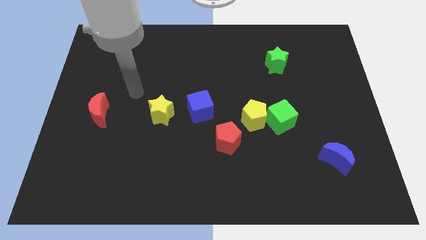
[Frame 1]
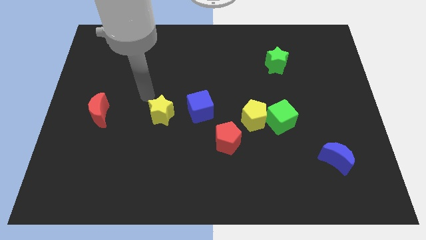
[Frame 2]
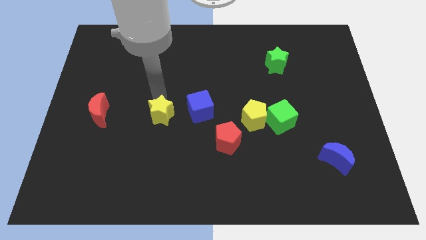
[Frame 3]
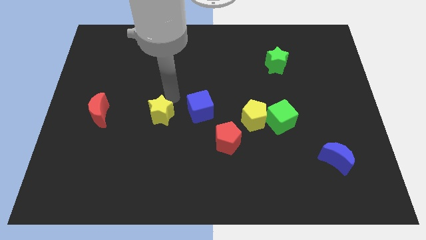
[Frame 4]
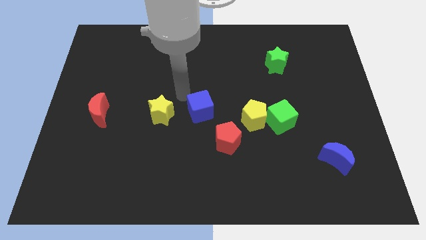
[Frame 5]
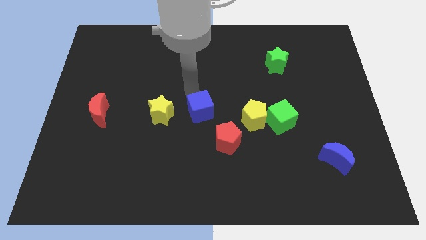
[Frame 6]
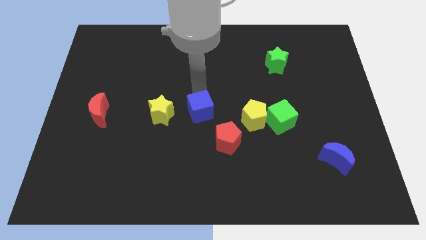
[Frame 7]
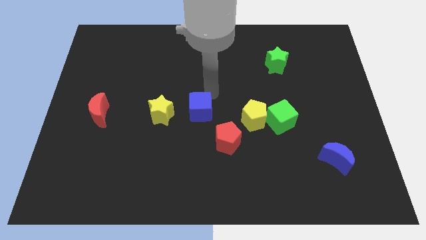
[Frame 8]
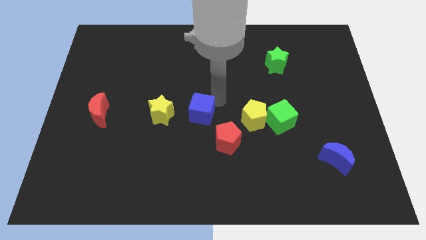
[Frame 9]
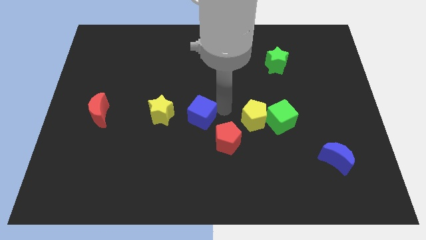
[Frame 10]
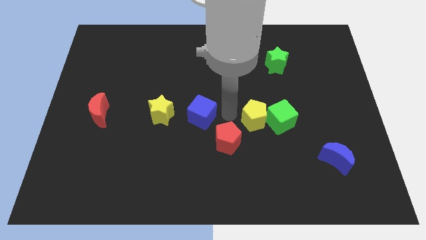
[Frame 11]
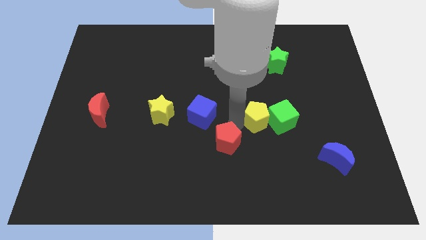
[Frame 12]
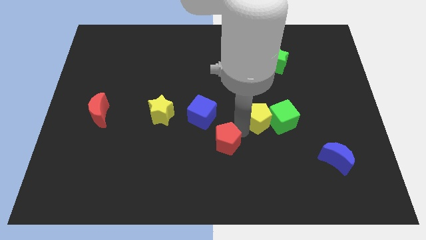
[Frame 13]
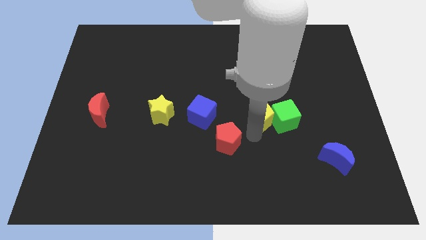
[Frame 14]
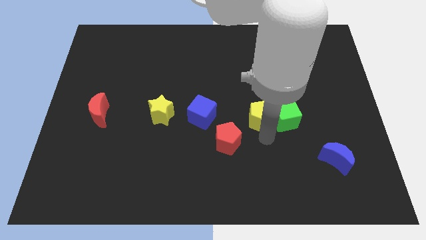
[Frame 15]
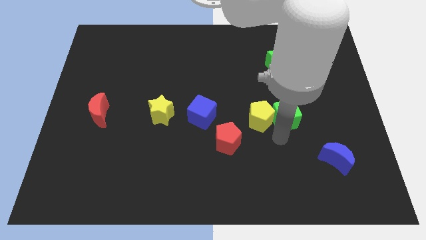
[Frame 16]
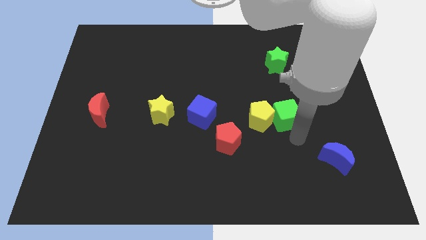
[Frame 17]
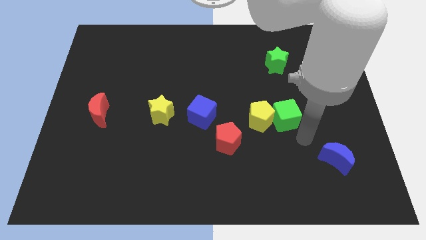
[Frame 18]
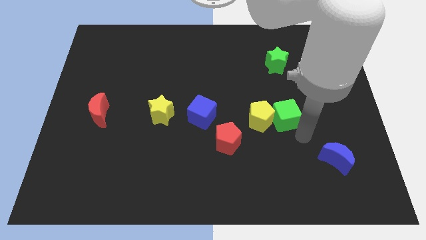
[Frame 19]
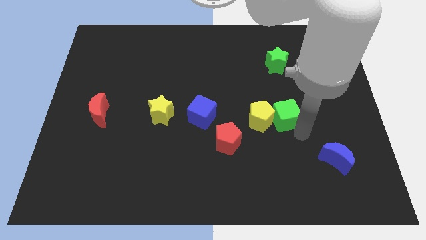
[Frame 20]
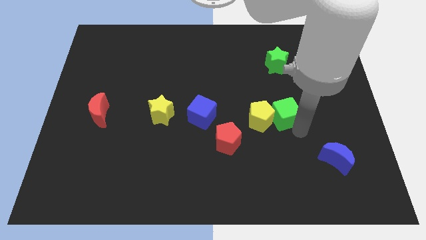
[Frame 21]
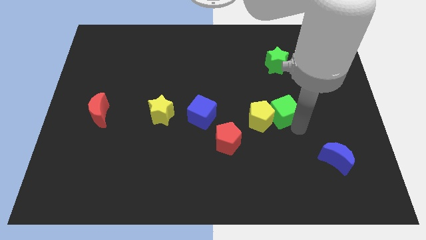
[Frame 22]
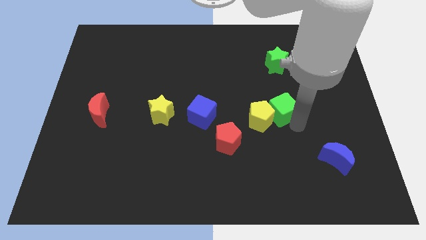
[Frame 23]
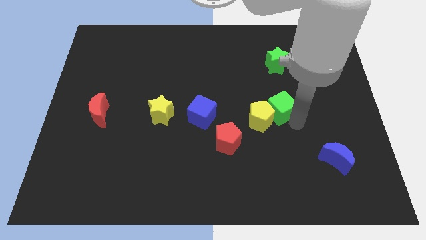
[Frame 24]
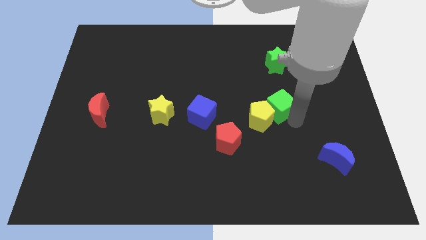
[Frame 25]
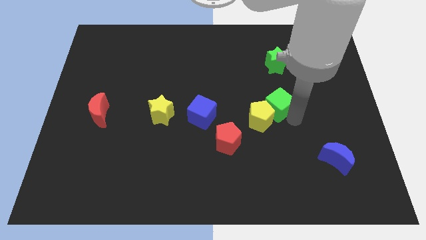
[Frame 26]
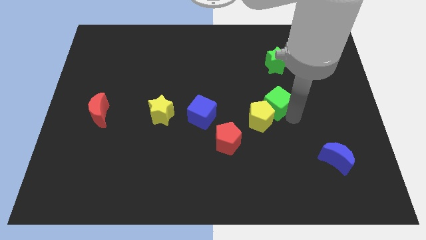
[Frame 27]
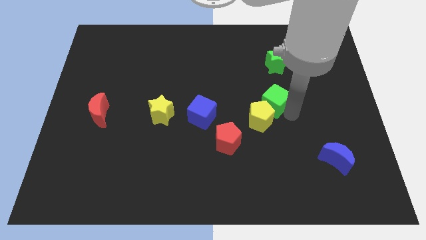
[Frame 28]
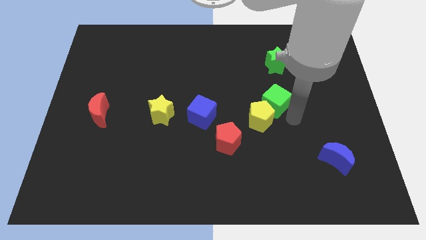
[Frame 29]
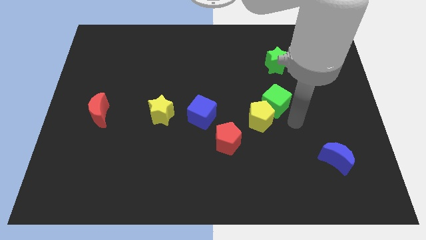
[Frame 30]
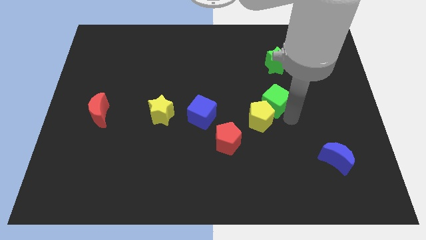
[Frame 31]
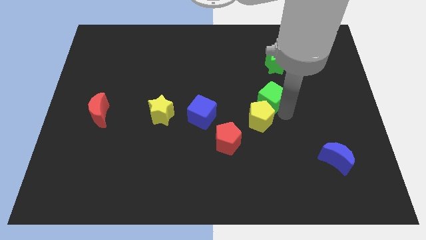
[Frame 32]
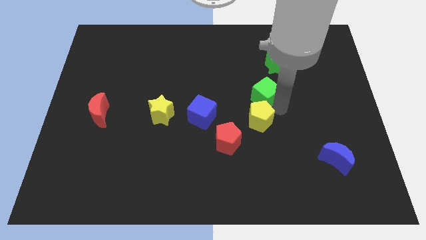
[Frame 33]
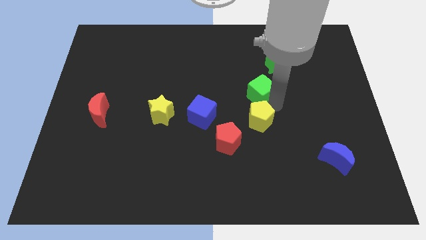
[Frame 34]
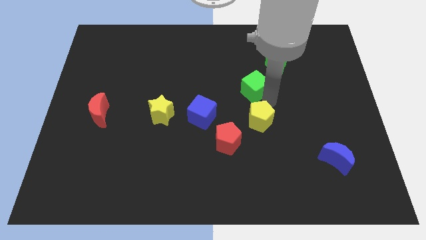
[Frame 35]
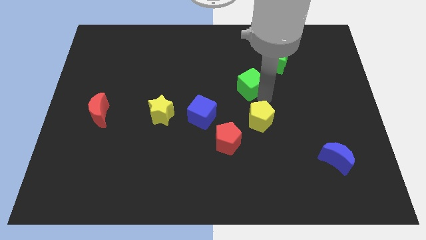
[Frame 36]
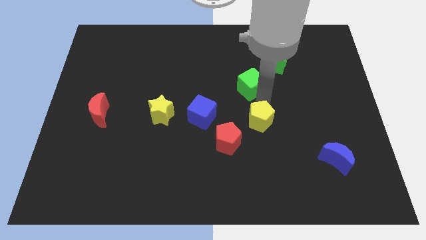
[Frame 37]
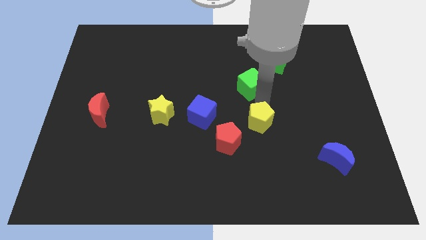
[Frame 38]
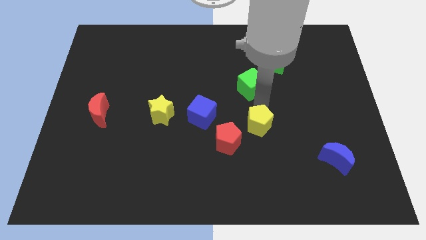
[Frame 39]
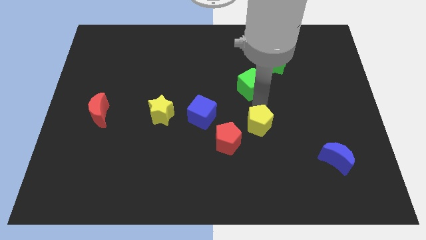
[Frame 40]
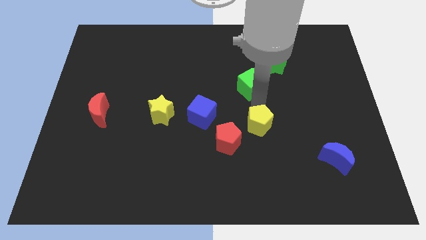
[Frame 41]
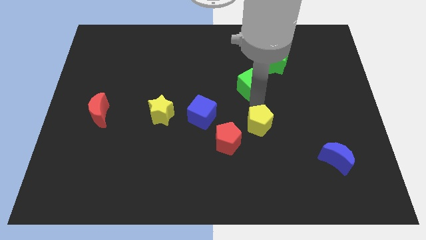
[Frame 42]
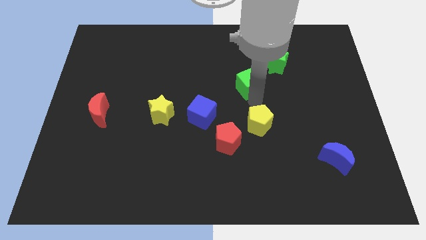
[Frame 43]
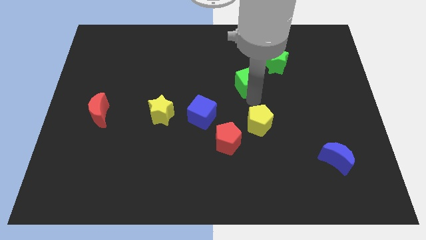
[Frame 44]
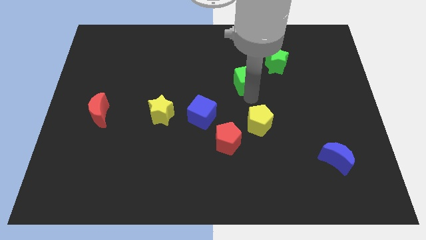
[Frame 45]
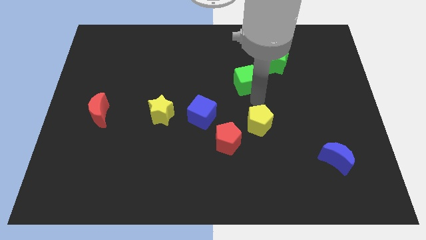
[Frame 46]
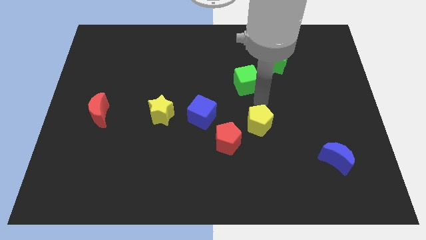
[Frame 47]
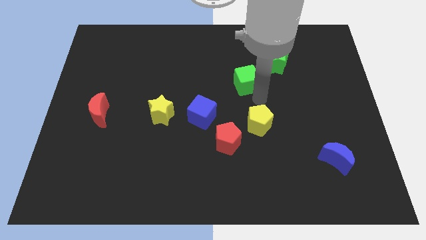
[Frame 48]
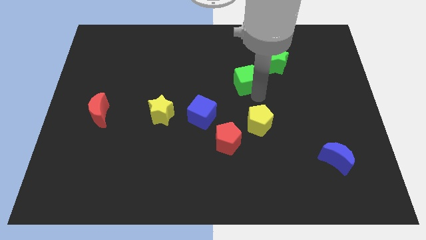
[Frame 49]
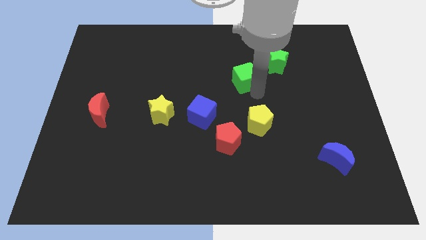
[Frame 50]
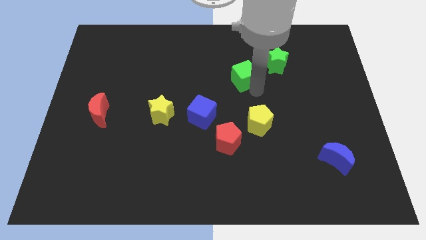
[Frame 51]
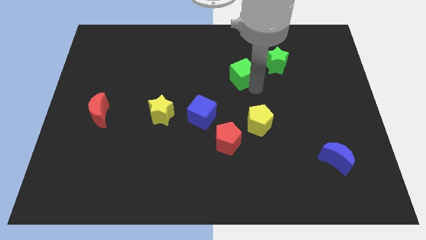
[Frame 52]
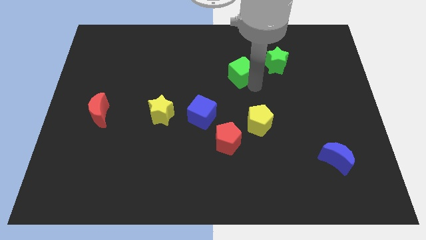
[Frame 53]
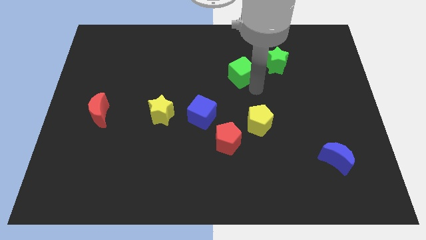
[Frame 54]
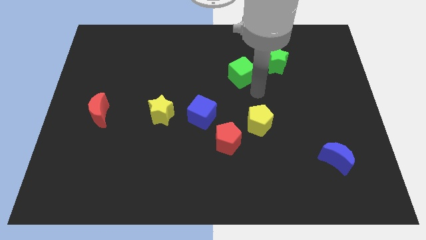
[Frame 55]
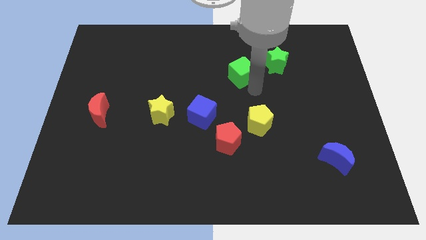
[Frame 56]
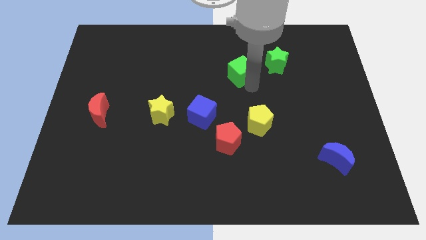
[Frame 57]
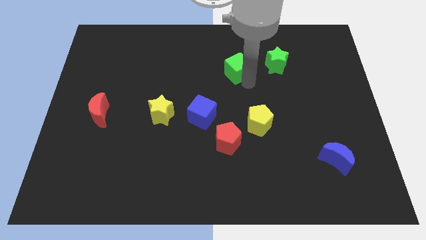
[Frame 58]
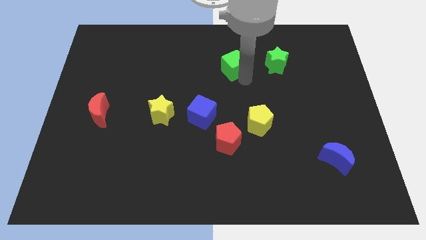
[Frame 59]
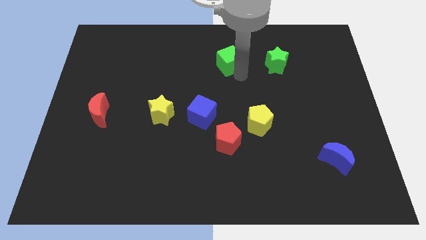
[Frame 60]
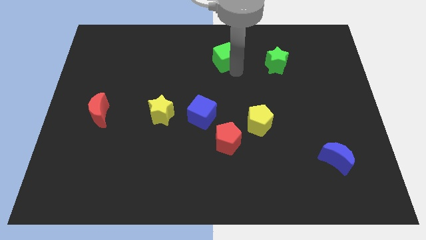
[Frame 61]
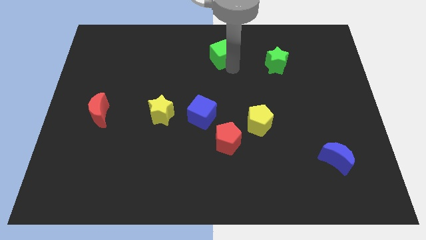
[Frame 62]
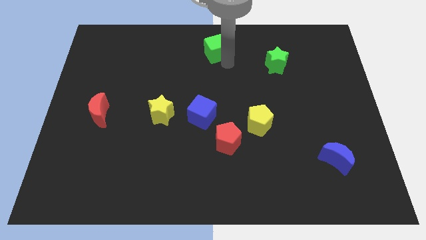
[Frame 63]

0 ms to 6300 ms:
slide the green cube to the top
